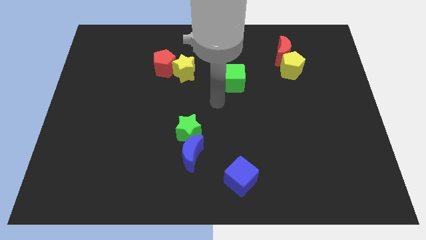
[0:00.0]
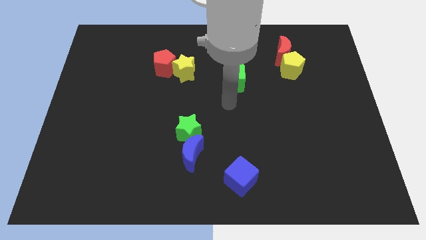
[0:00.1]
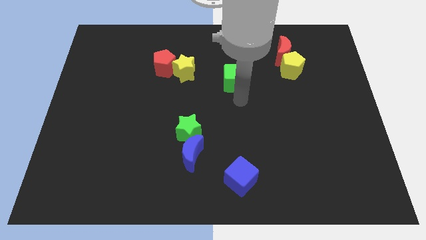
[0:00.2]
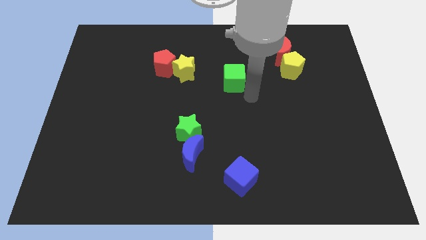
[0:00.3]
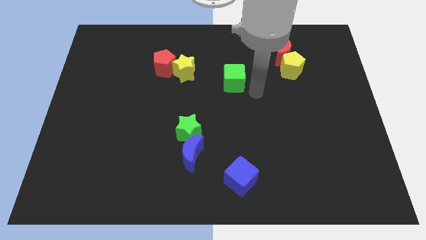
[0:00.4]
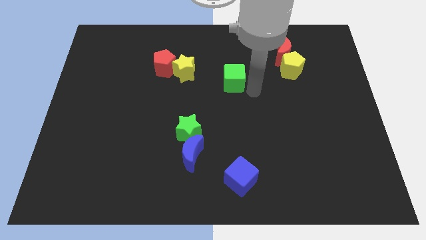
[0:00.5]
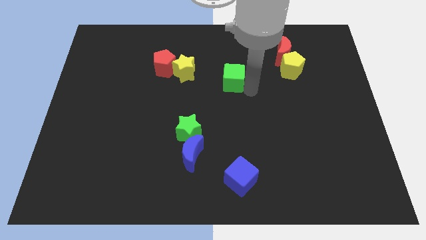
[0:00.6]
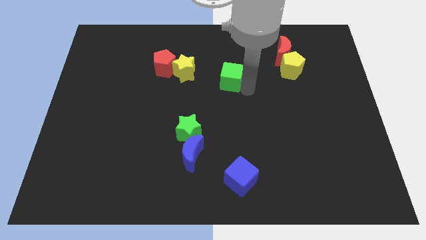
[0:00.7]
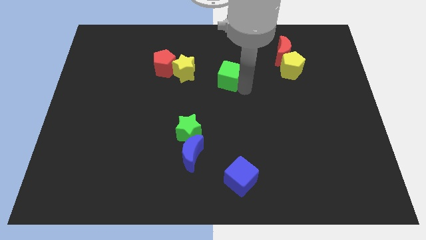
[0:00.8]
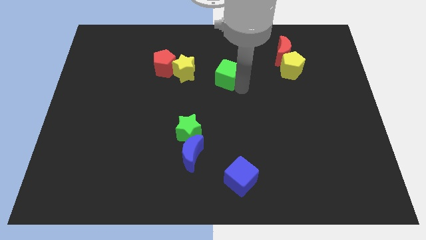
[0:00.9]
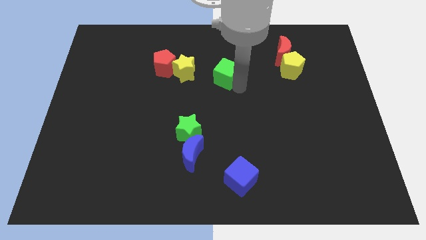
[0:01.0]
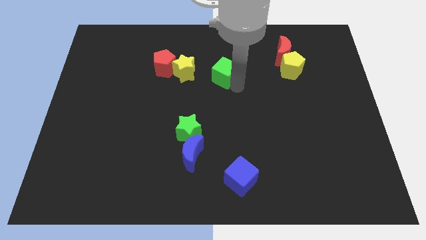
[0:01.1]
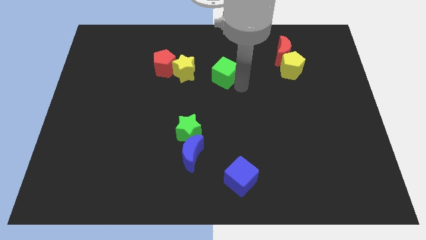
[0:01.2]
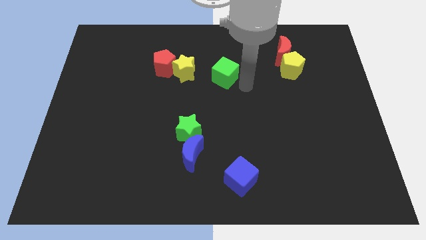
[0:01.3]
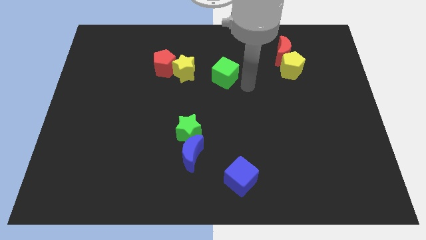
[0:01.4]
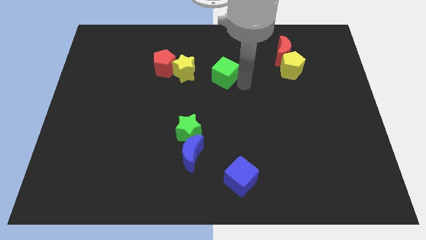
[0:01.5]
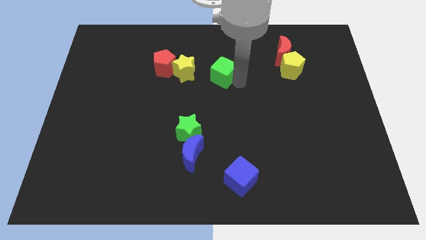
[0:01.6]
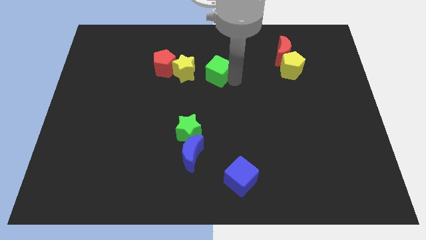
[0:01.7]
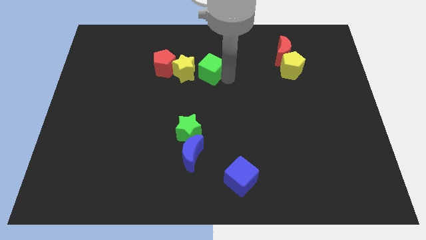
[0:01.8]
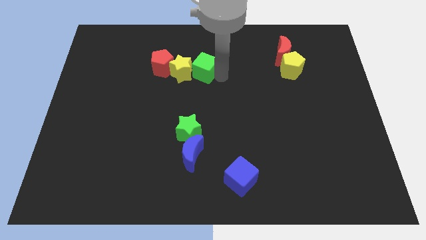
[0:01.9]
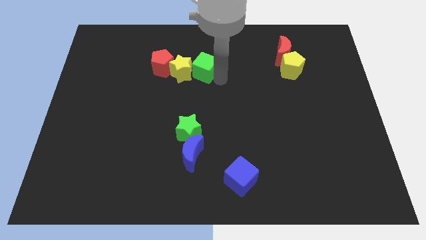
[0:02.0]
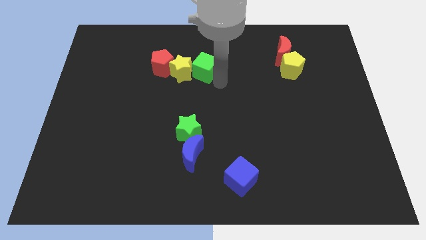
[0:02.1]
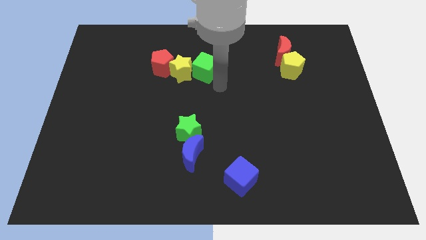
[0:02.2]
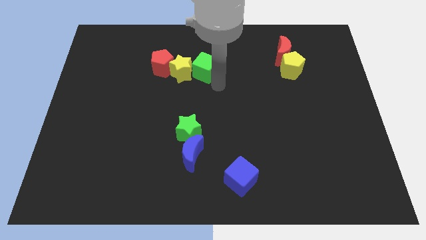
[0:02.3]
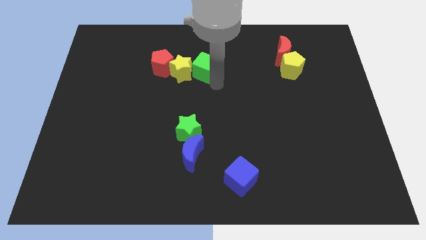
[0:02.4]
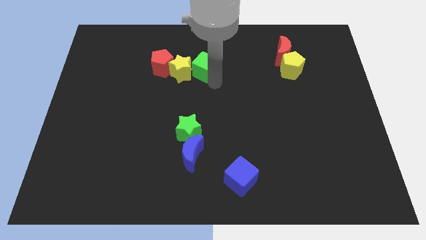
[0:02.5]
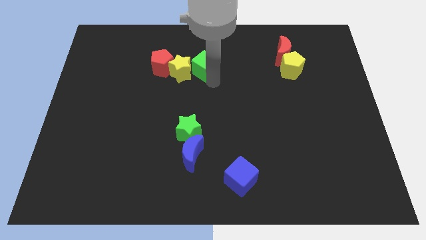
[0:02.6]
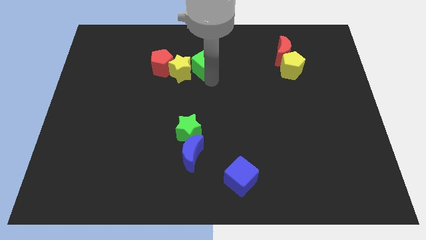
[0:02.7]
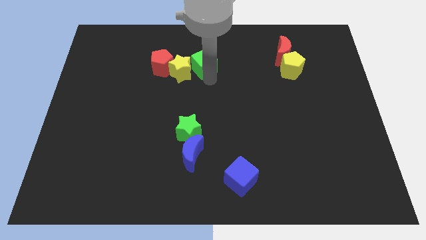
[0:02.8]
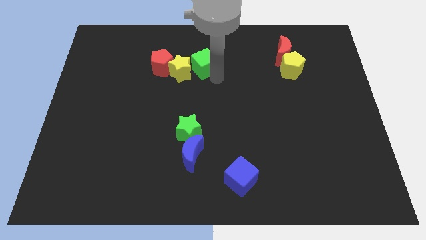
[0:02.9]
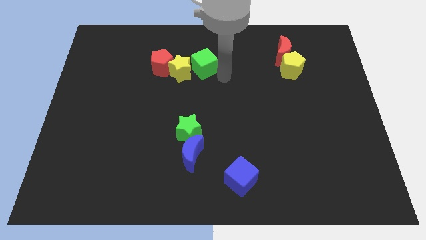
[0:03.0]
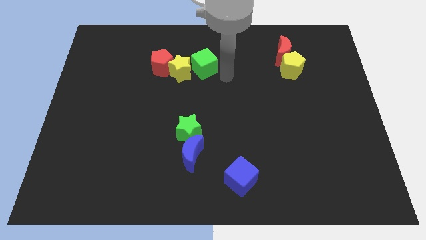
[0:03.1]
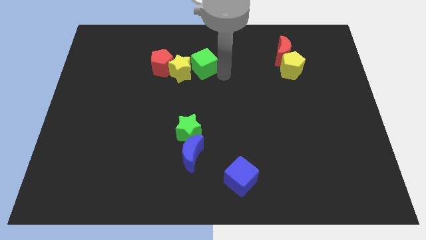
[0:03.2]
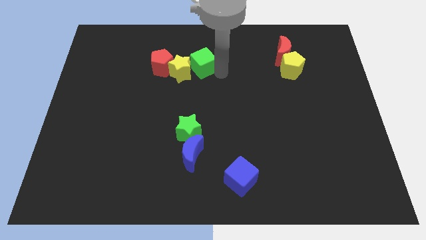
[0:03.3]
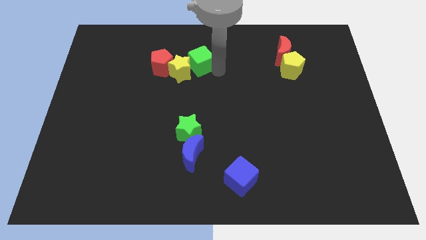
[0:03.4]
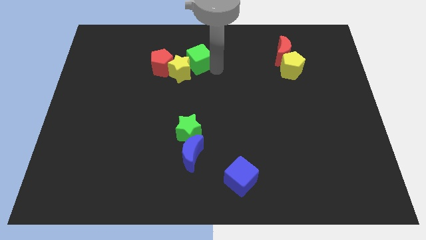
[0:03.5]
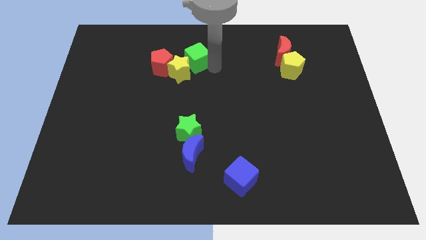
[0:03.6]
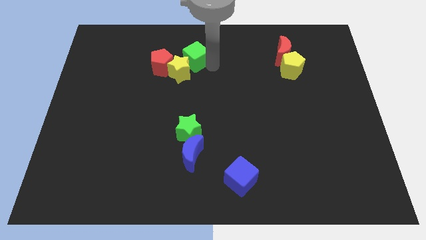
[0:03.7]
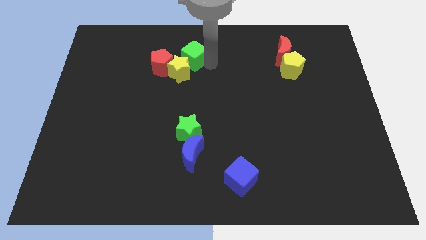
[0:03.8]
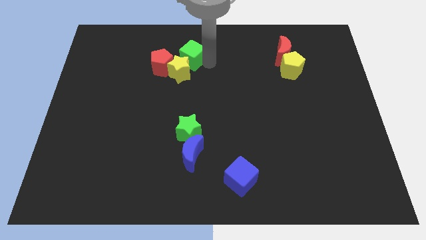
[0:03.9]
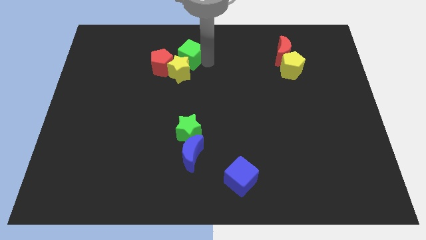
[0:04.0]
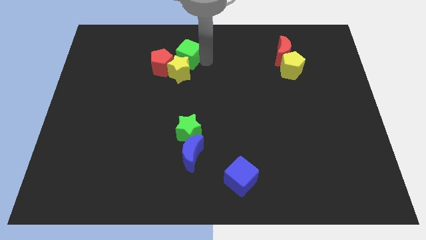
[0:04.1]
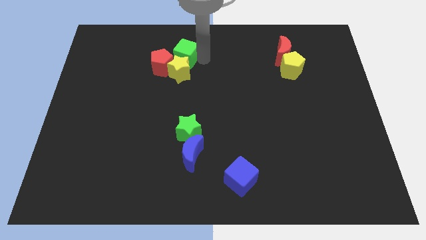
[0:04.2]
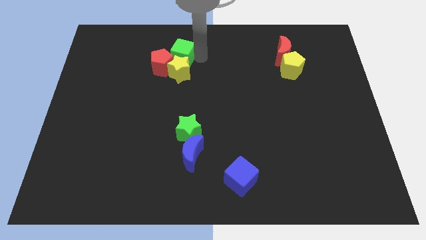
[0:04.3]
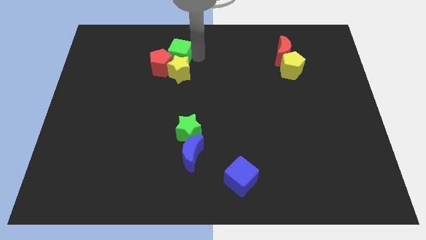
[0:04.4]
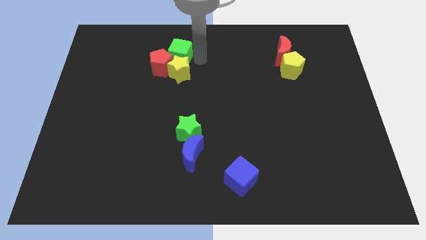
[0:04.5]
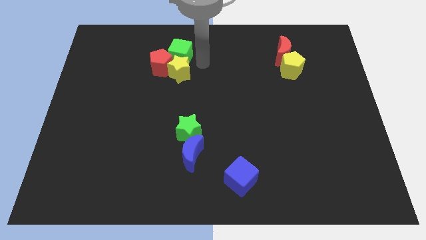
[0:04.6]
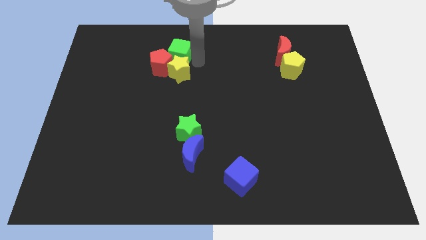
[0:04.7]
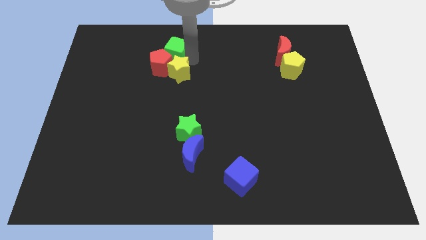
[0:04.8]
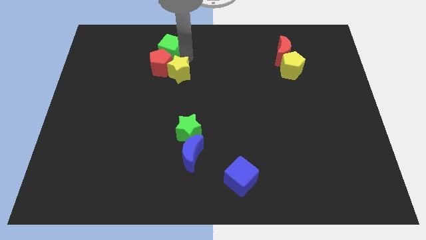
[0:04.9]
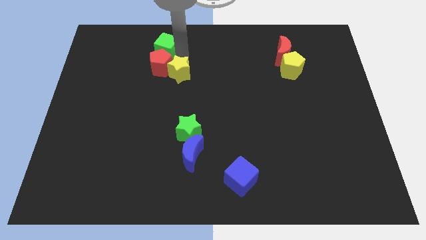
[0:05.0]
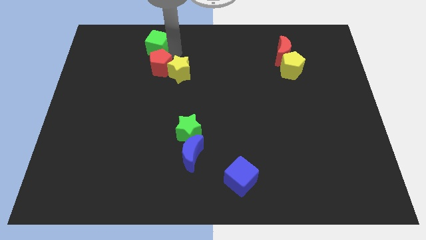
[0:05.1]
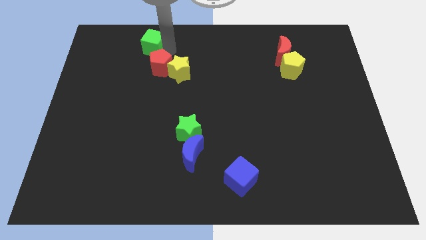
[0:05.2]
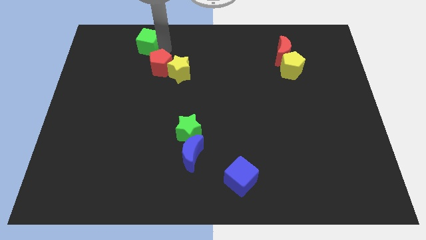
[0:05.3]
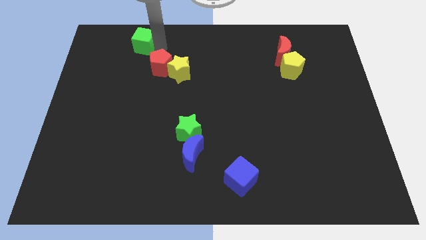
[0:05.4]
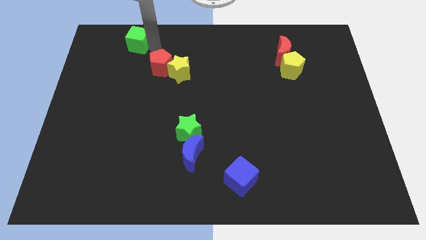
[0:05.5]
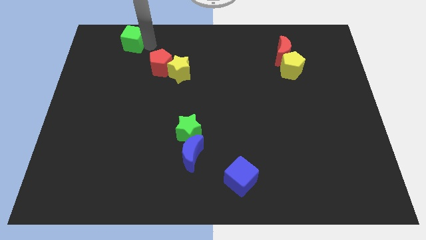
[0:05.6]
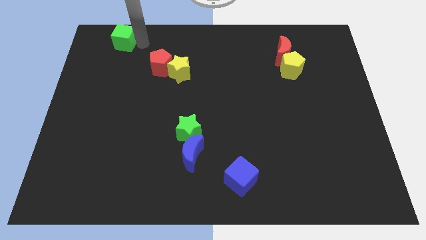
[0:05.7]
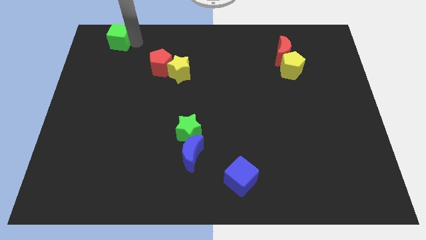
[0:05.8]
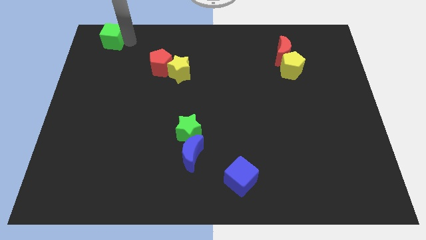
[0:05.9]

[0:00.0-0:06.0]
put the green cube to the top left corner

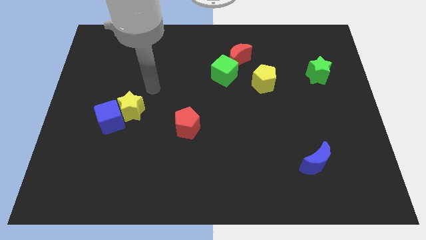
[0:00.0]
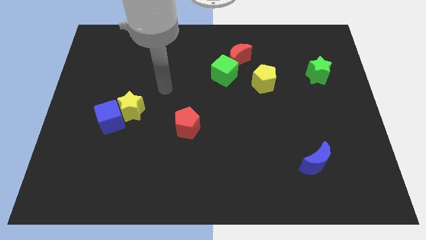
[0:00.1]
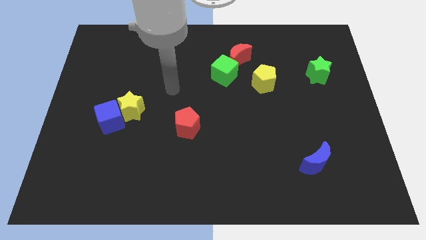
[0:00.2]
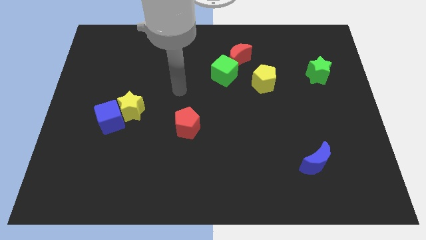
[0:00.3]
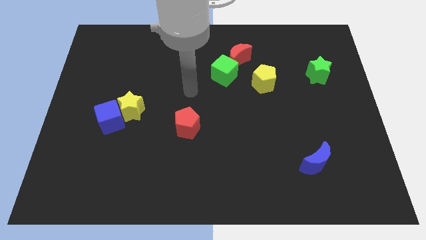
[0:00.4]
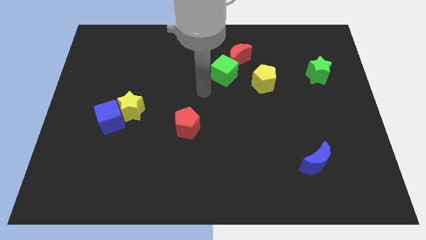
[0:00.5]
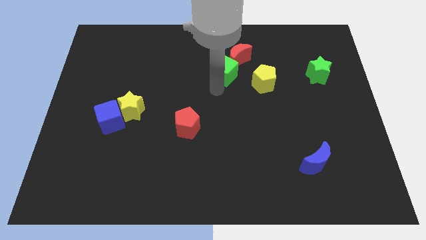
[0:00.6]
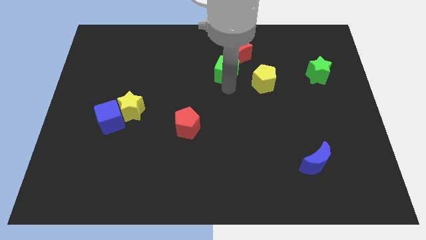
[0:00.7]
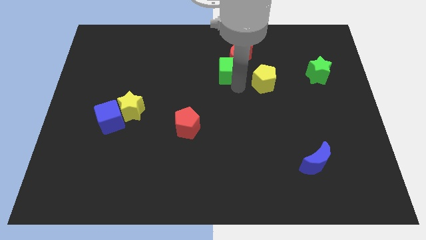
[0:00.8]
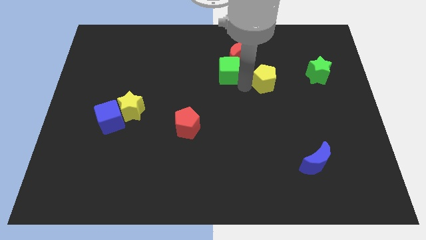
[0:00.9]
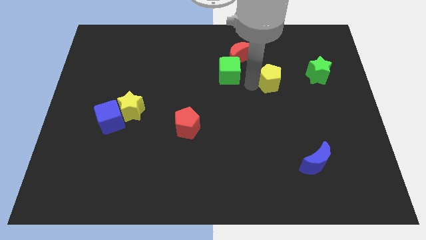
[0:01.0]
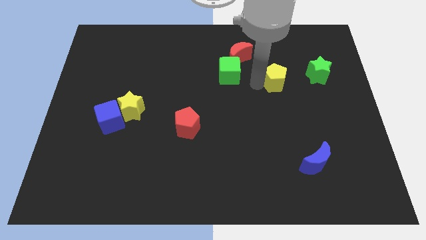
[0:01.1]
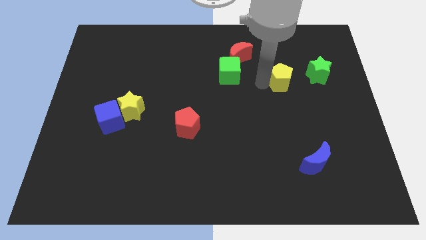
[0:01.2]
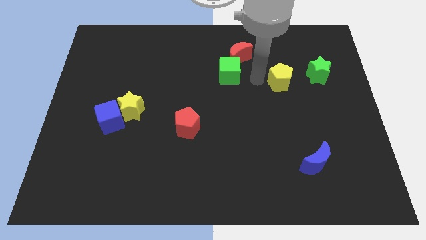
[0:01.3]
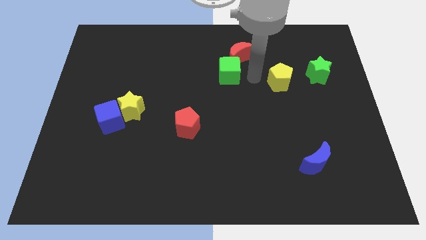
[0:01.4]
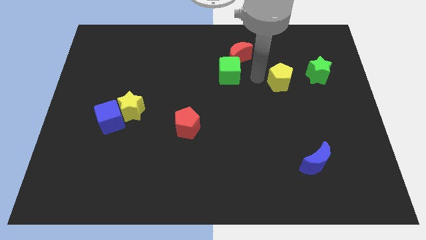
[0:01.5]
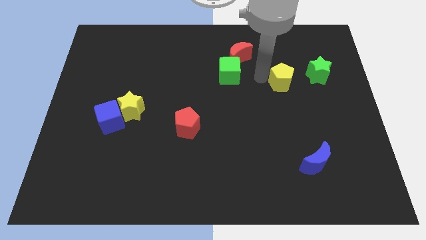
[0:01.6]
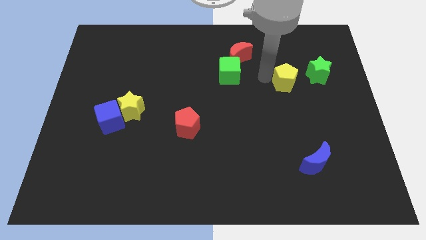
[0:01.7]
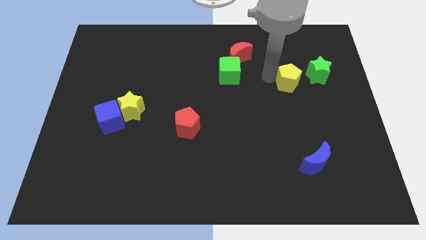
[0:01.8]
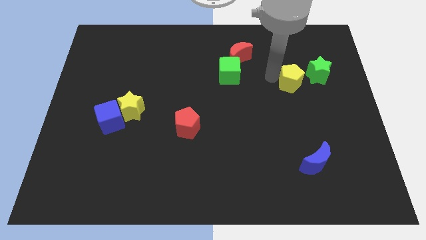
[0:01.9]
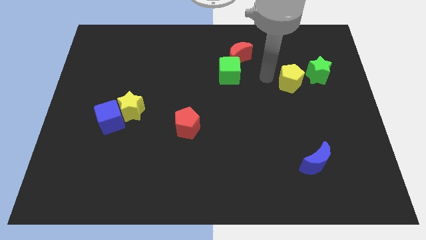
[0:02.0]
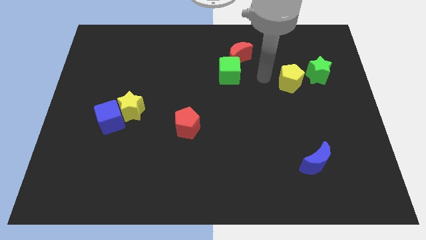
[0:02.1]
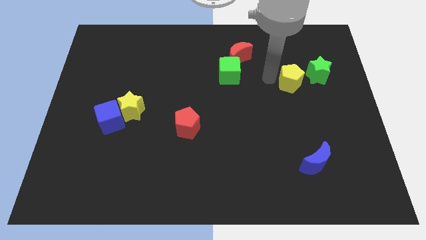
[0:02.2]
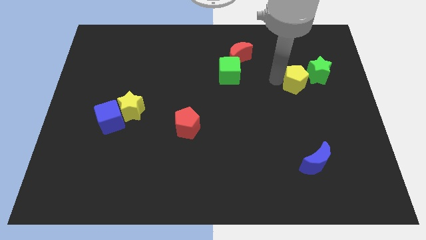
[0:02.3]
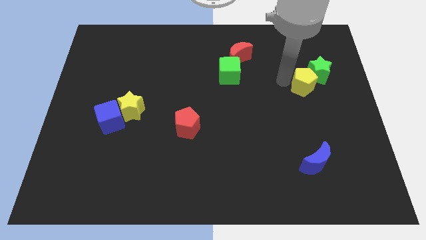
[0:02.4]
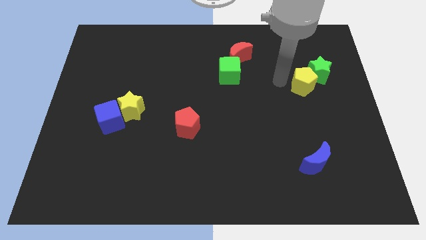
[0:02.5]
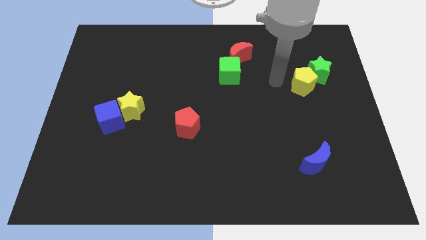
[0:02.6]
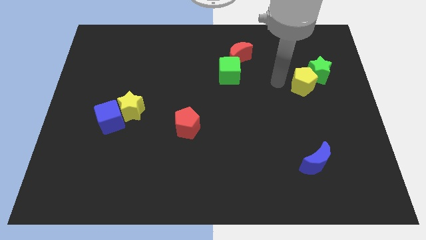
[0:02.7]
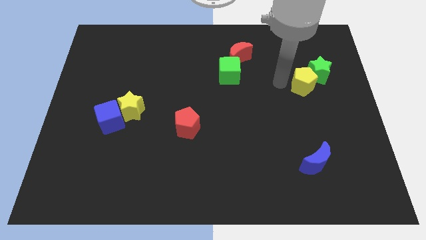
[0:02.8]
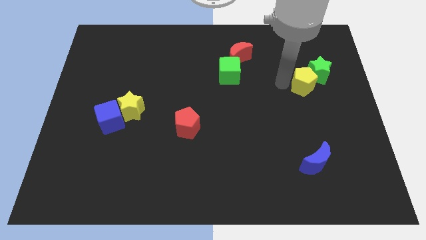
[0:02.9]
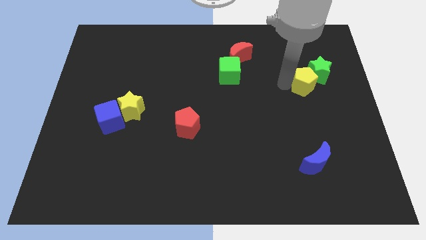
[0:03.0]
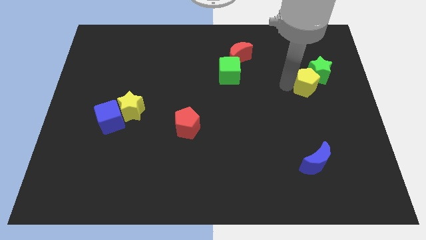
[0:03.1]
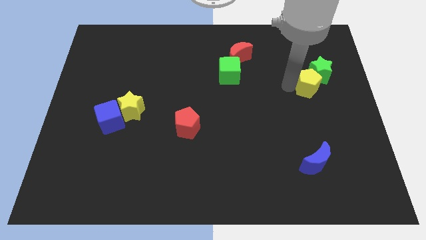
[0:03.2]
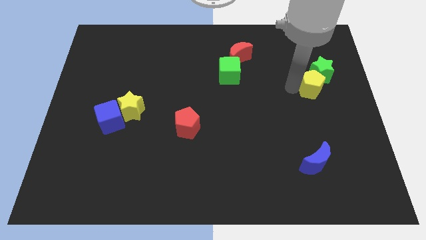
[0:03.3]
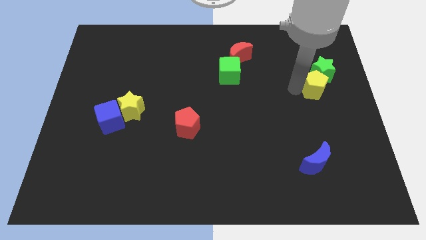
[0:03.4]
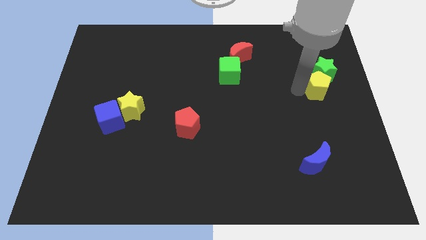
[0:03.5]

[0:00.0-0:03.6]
push the yellow pentagon to the right side
